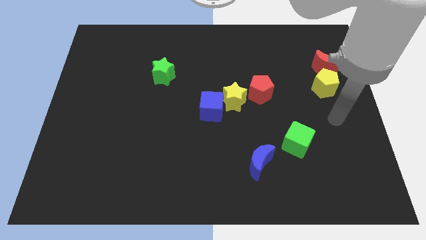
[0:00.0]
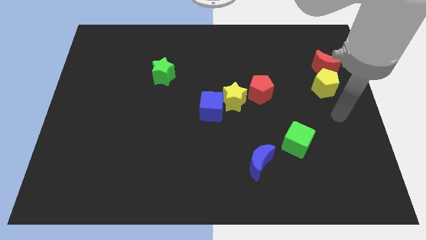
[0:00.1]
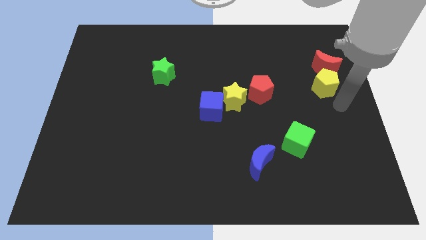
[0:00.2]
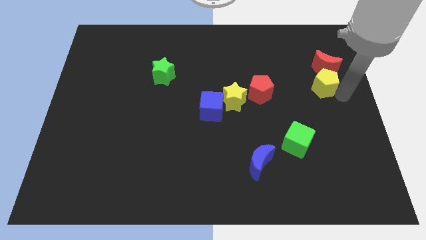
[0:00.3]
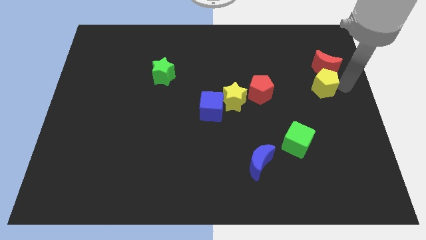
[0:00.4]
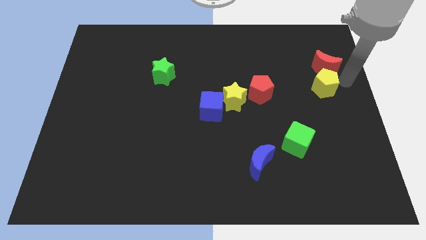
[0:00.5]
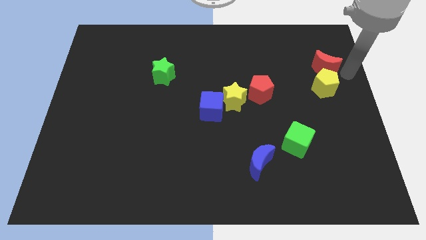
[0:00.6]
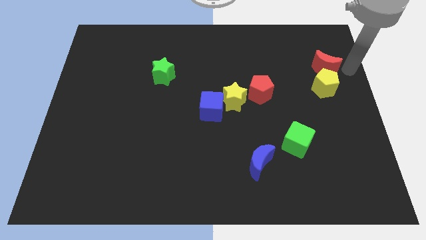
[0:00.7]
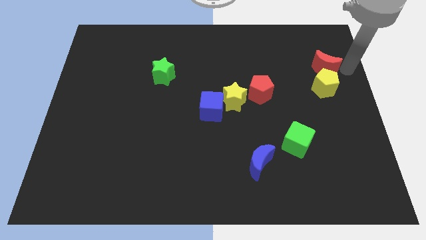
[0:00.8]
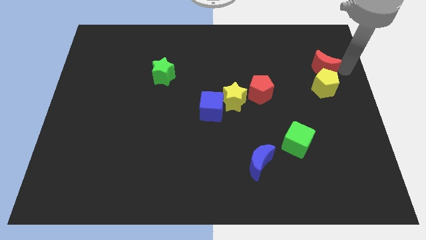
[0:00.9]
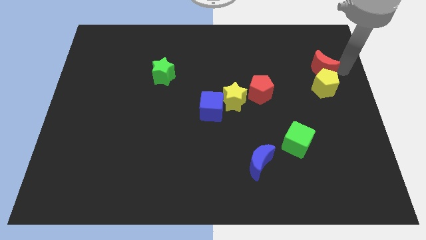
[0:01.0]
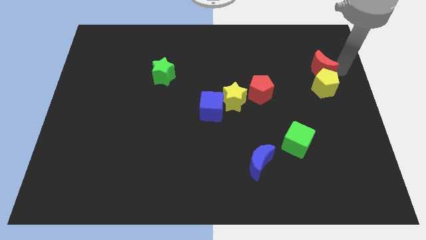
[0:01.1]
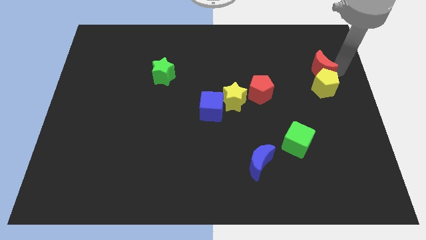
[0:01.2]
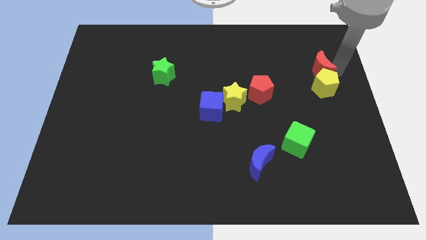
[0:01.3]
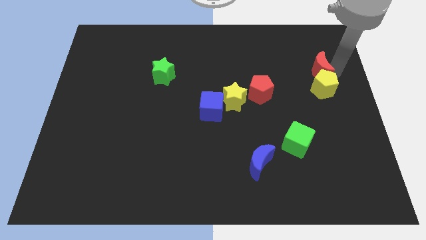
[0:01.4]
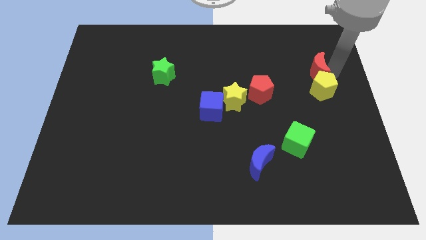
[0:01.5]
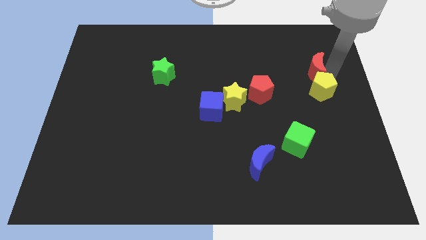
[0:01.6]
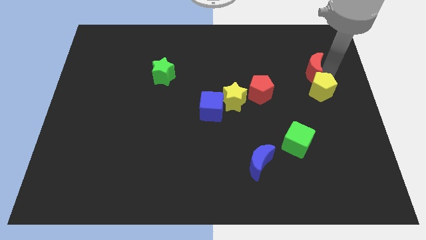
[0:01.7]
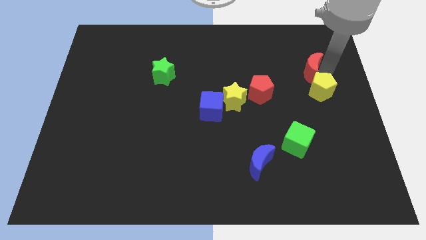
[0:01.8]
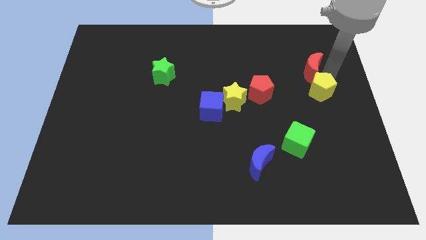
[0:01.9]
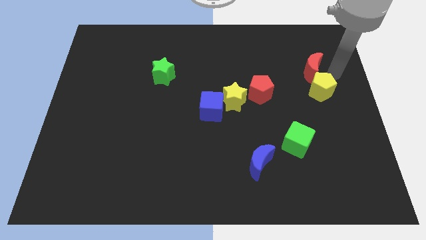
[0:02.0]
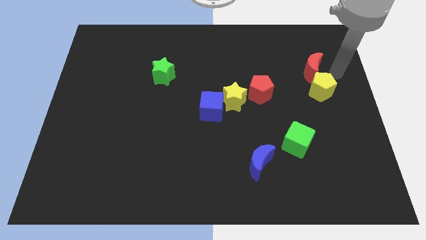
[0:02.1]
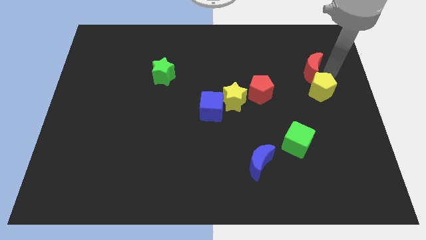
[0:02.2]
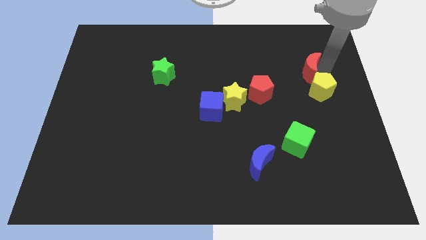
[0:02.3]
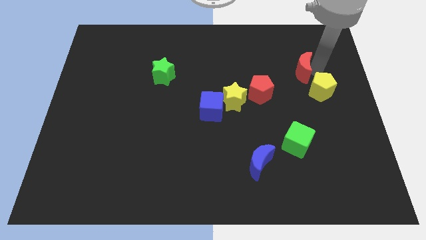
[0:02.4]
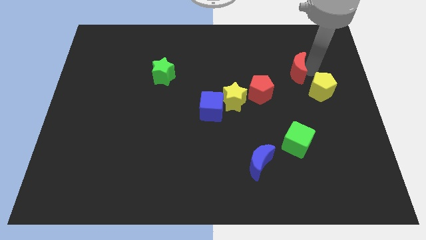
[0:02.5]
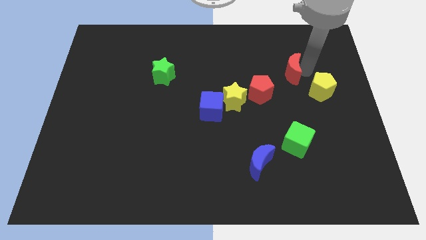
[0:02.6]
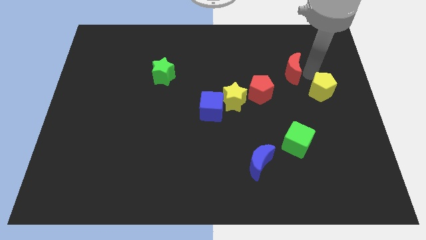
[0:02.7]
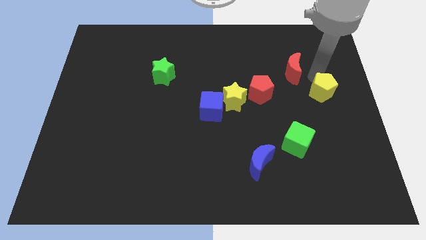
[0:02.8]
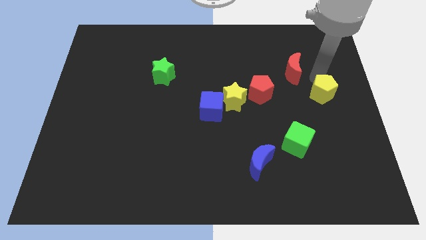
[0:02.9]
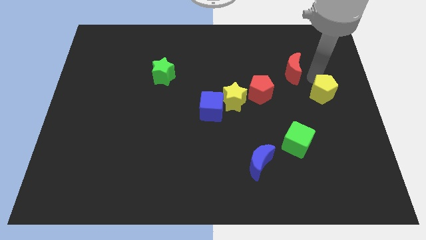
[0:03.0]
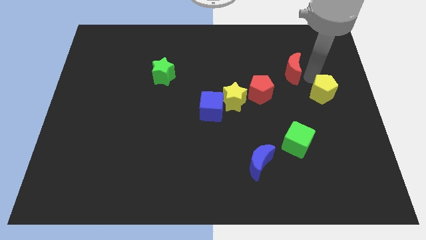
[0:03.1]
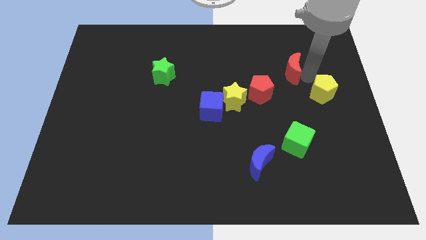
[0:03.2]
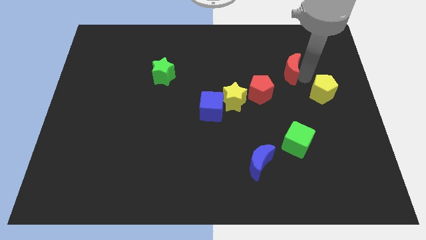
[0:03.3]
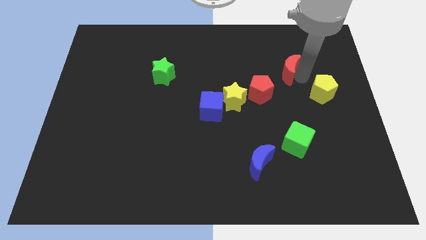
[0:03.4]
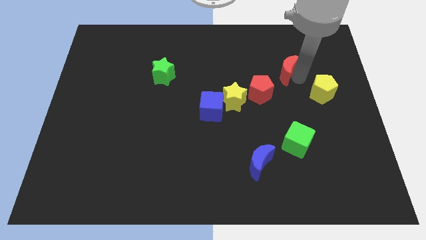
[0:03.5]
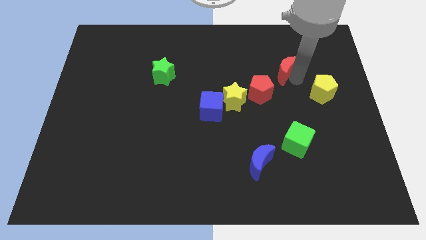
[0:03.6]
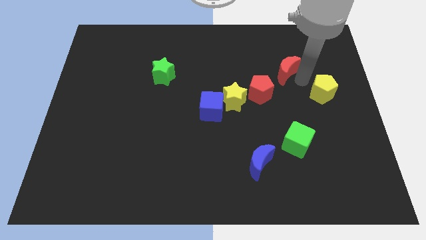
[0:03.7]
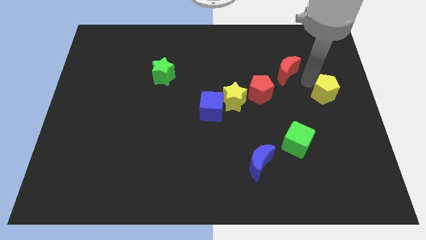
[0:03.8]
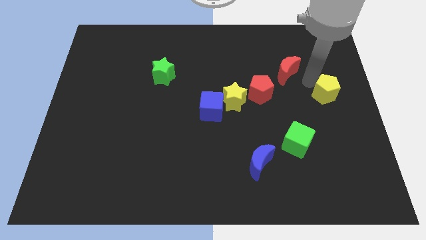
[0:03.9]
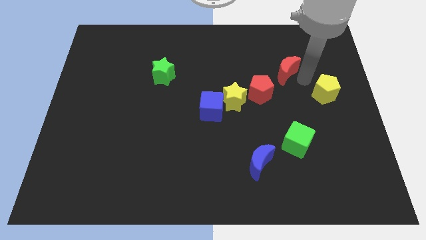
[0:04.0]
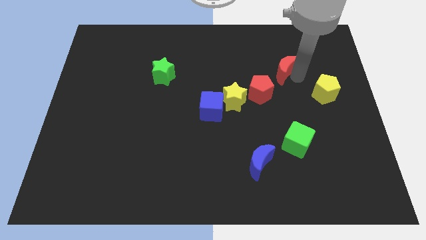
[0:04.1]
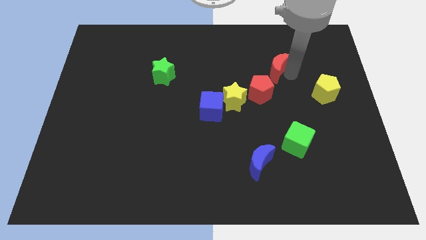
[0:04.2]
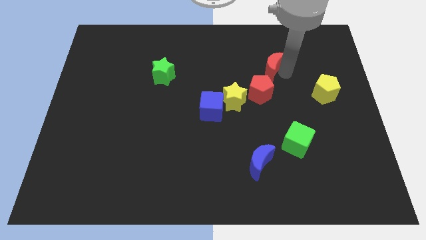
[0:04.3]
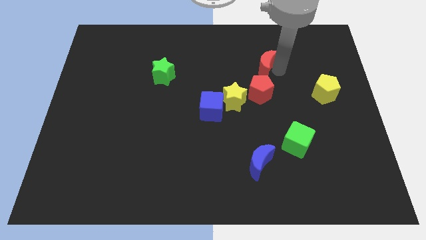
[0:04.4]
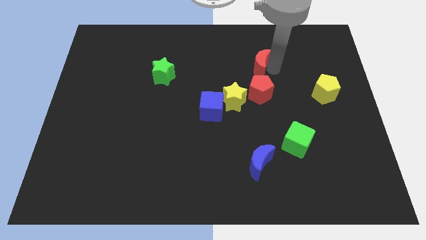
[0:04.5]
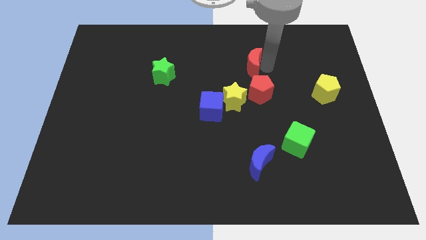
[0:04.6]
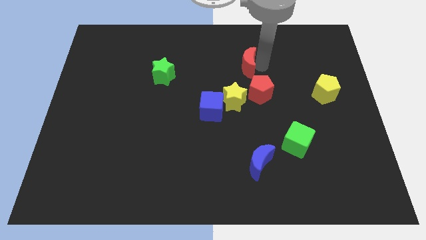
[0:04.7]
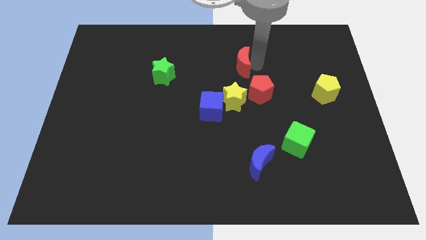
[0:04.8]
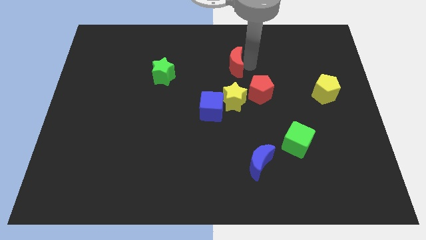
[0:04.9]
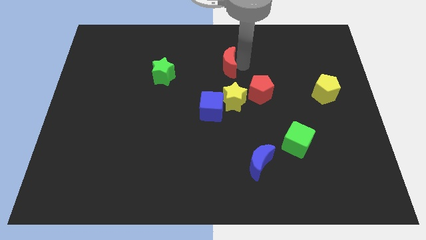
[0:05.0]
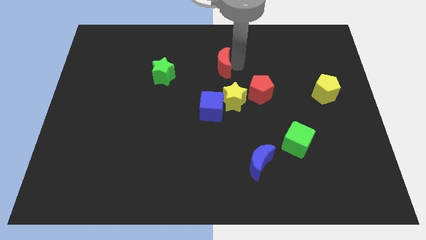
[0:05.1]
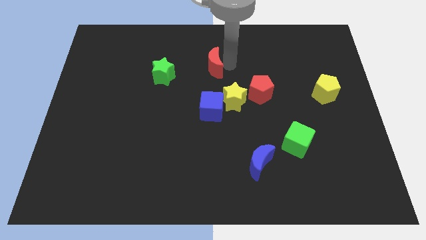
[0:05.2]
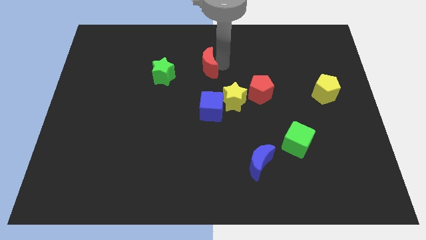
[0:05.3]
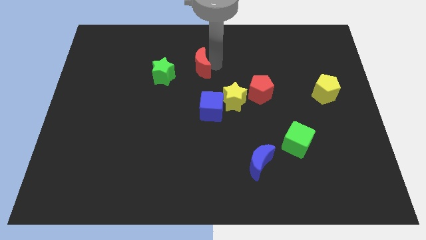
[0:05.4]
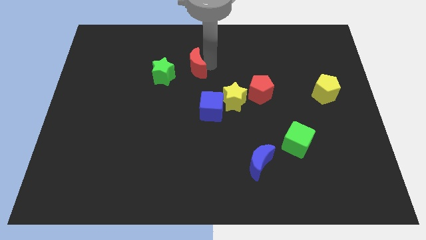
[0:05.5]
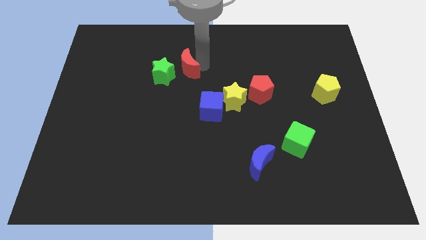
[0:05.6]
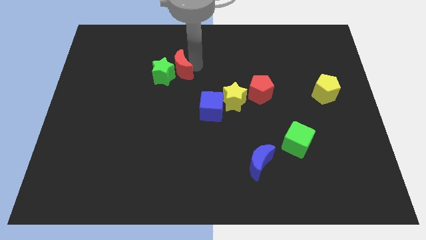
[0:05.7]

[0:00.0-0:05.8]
move the red moon next to the green star

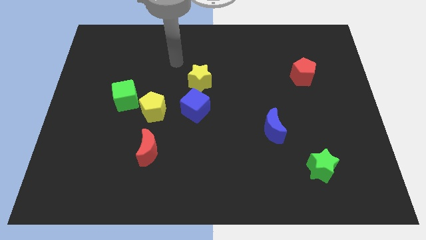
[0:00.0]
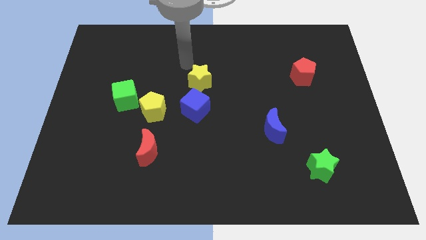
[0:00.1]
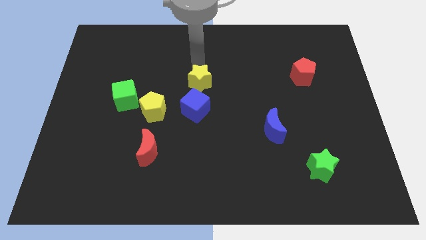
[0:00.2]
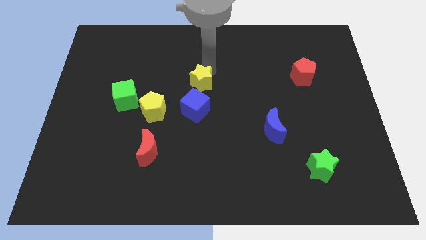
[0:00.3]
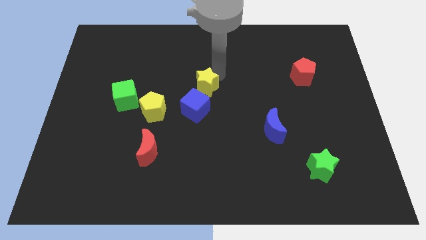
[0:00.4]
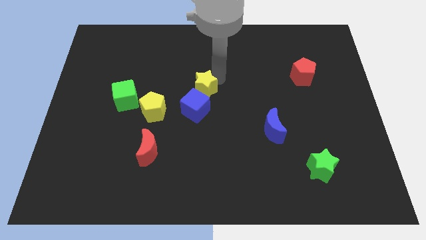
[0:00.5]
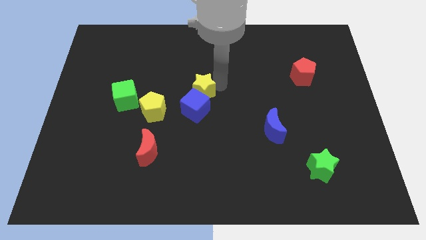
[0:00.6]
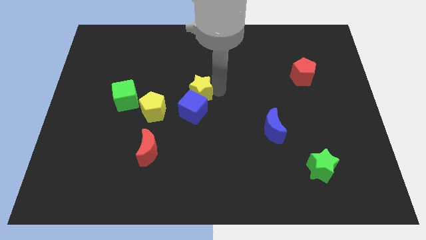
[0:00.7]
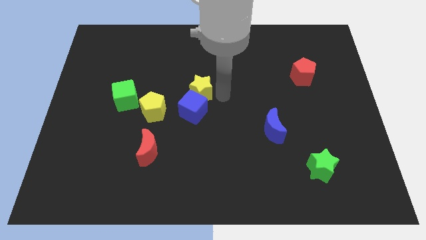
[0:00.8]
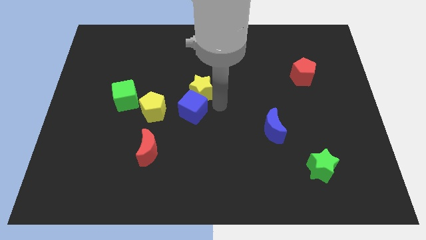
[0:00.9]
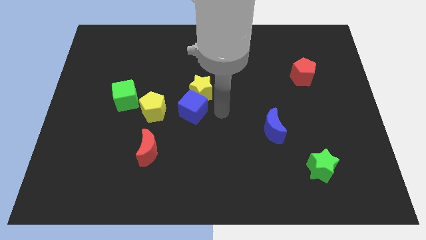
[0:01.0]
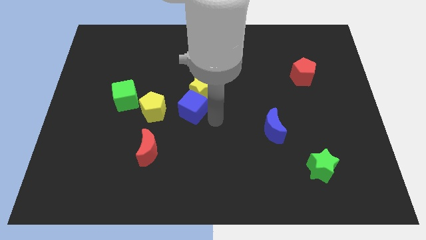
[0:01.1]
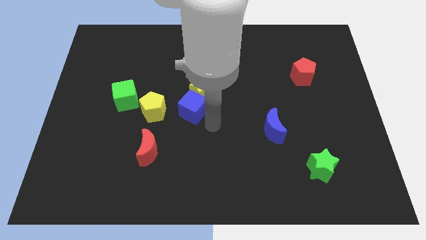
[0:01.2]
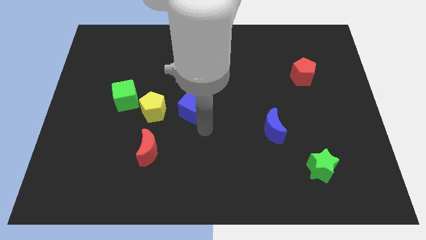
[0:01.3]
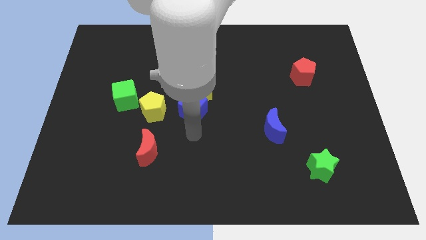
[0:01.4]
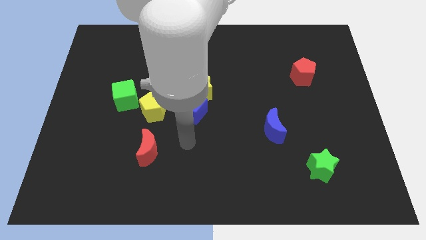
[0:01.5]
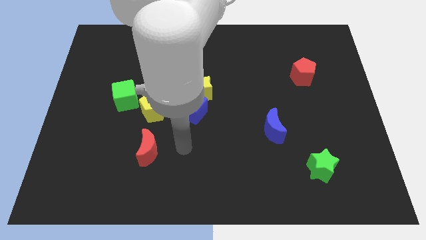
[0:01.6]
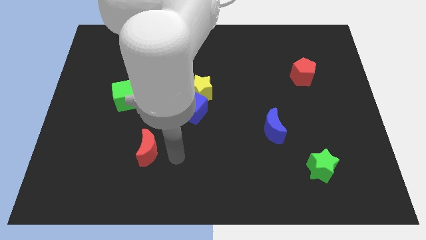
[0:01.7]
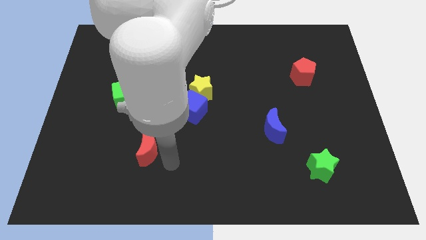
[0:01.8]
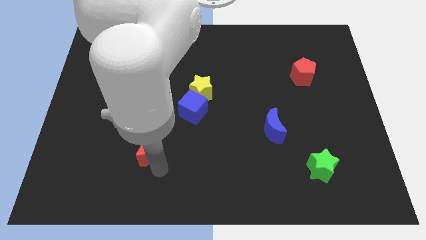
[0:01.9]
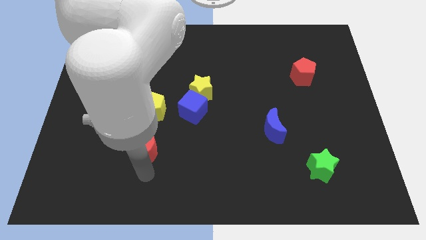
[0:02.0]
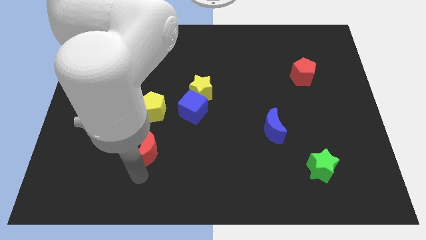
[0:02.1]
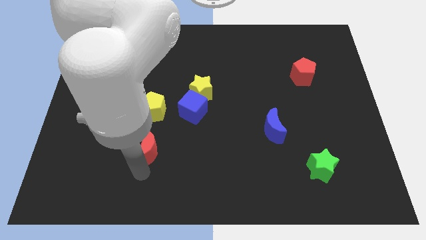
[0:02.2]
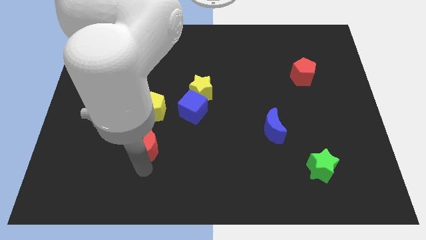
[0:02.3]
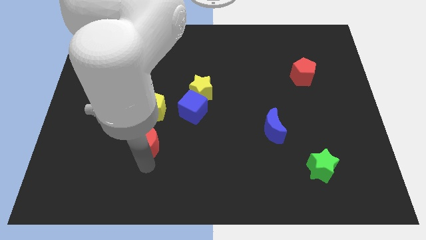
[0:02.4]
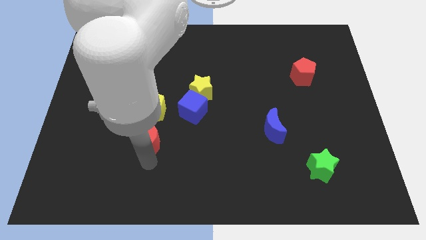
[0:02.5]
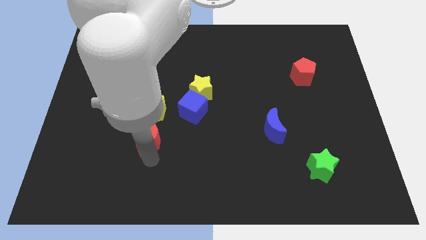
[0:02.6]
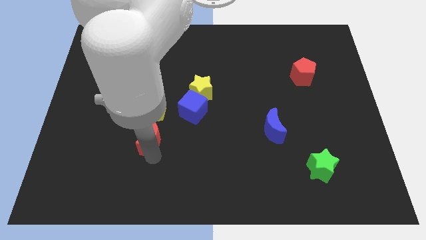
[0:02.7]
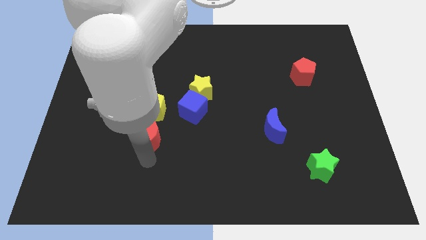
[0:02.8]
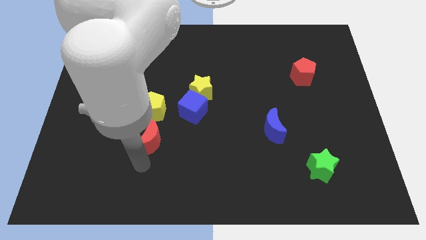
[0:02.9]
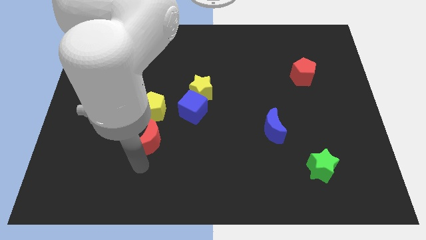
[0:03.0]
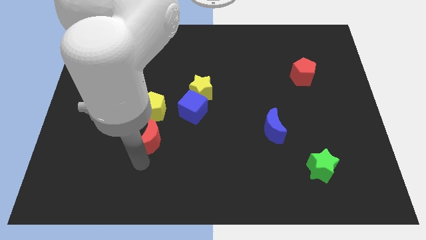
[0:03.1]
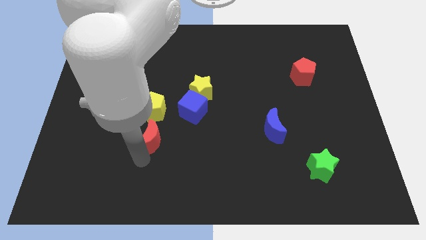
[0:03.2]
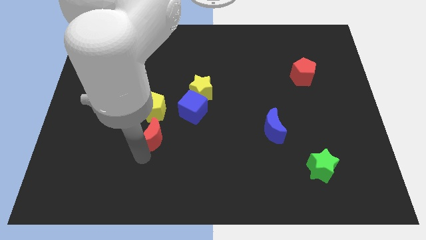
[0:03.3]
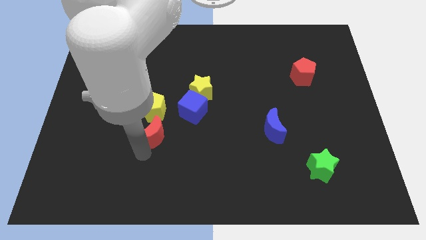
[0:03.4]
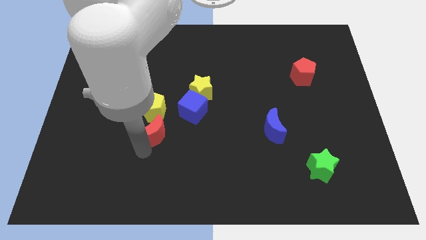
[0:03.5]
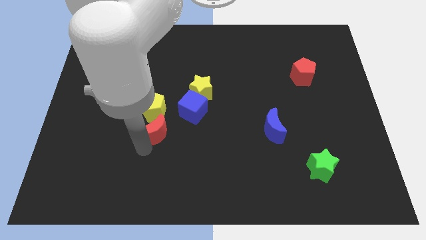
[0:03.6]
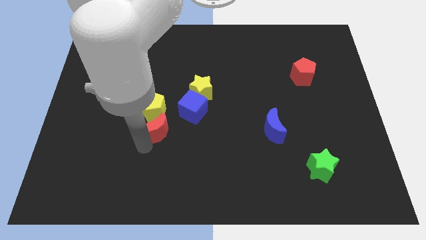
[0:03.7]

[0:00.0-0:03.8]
slide the red moon next to the yellow pentagon
